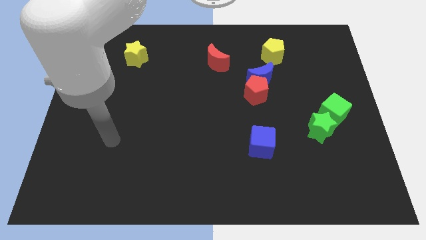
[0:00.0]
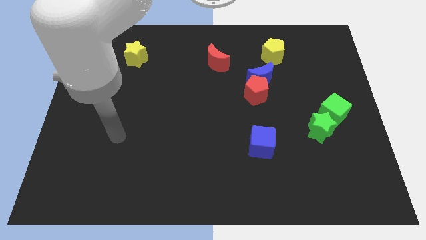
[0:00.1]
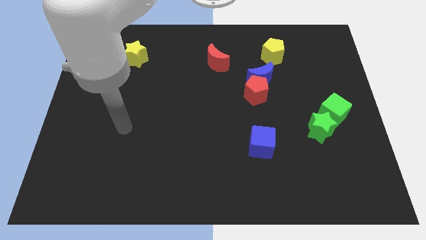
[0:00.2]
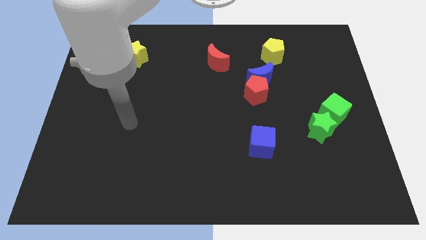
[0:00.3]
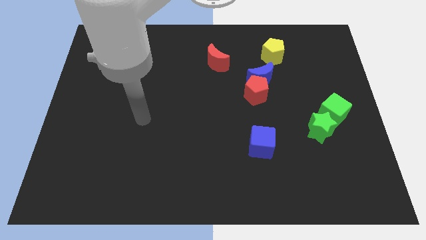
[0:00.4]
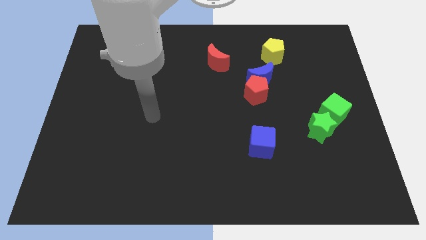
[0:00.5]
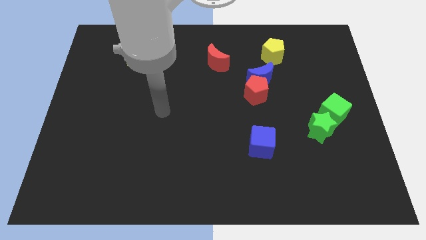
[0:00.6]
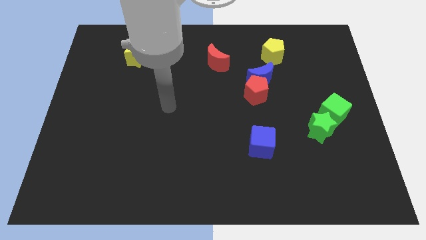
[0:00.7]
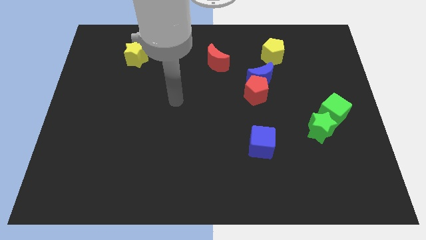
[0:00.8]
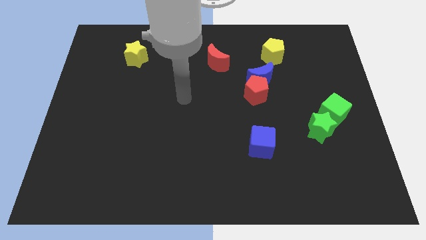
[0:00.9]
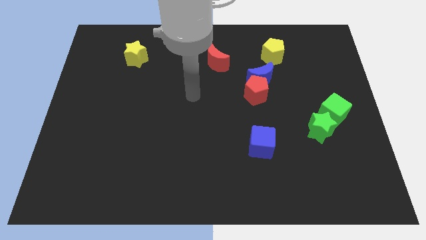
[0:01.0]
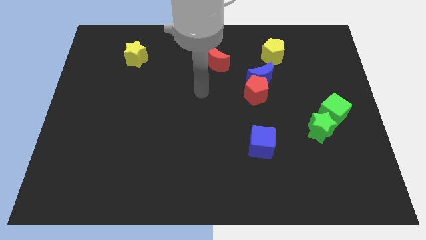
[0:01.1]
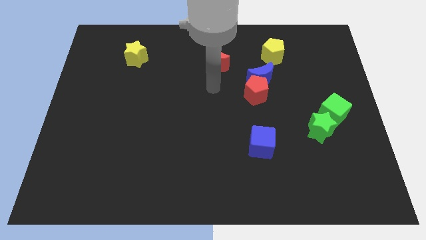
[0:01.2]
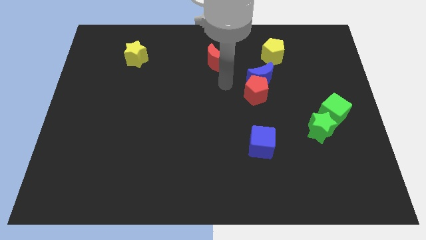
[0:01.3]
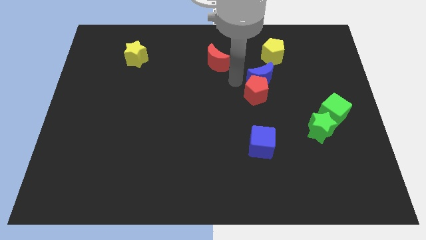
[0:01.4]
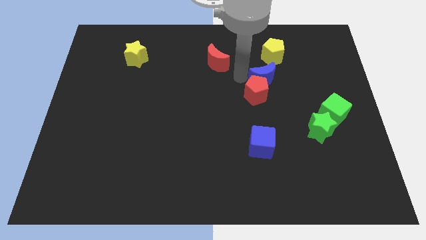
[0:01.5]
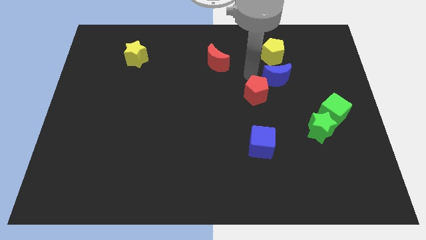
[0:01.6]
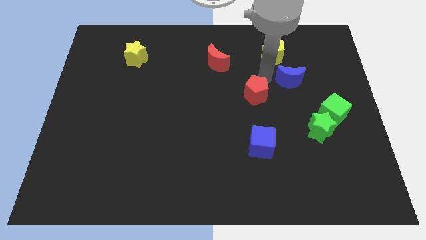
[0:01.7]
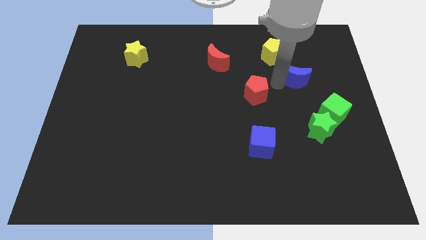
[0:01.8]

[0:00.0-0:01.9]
pull the red pentagon apart from the blue moon

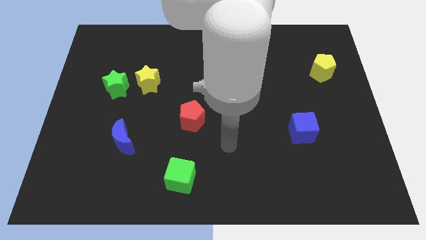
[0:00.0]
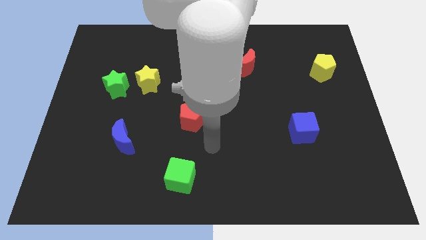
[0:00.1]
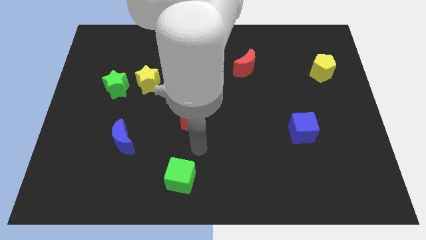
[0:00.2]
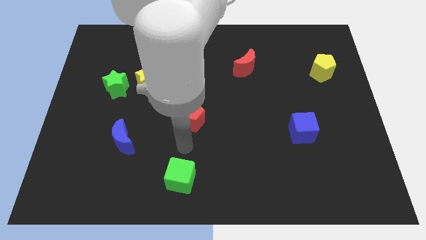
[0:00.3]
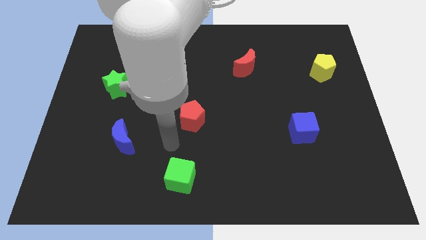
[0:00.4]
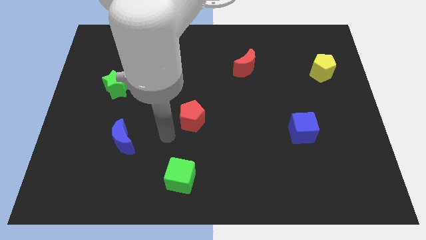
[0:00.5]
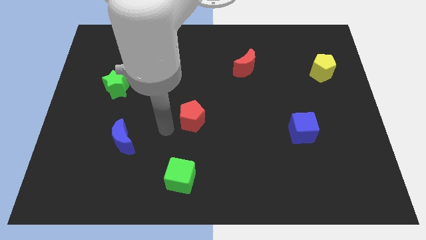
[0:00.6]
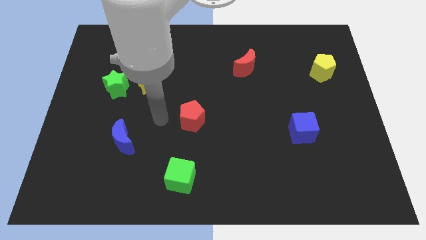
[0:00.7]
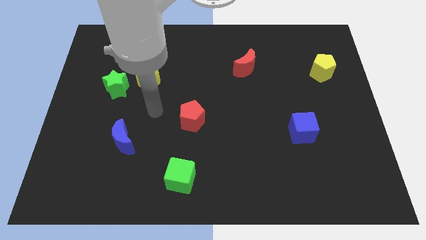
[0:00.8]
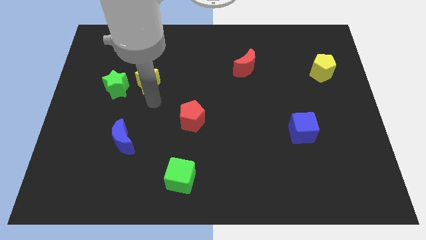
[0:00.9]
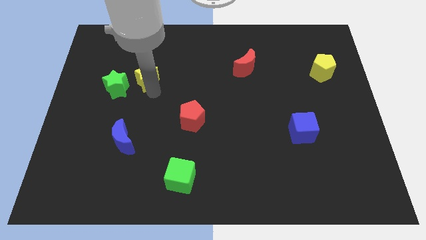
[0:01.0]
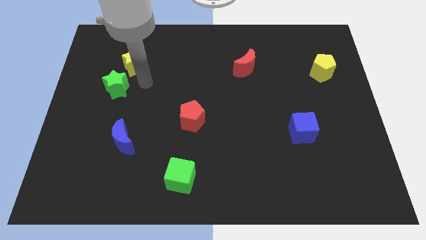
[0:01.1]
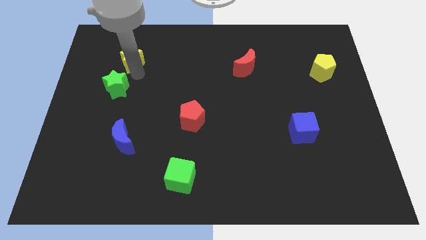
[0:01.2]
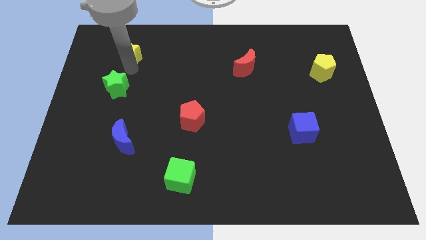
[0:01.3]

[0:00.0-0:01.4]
pull the green star apart from the yellow star

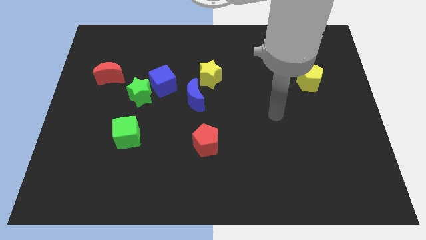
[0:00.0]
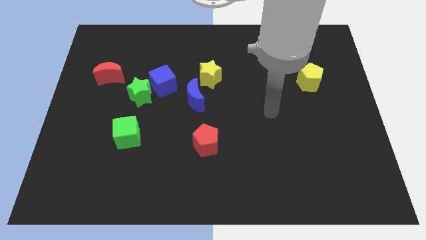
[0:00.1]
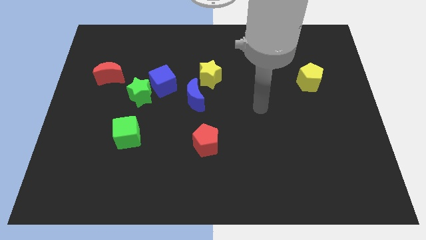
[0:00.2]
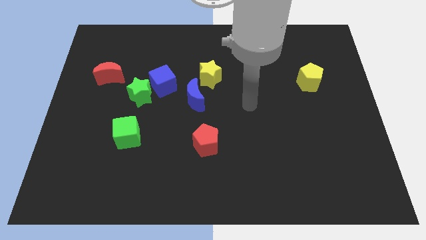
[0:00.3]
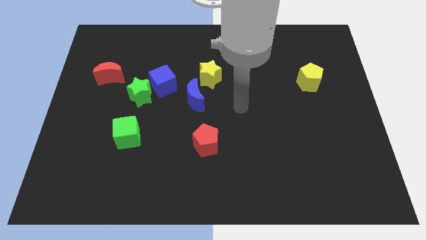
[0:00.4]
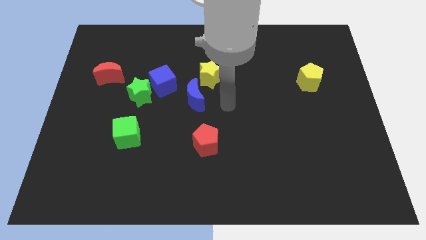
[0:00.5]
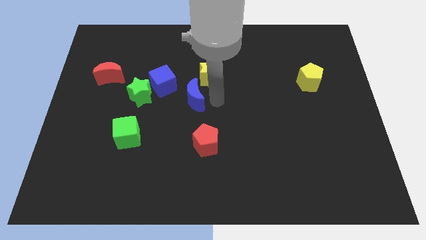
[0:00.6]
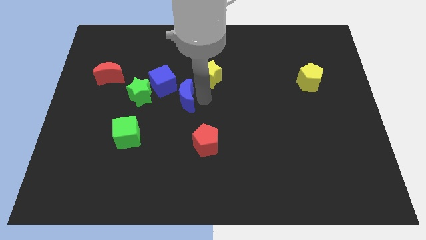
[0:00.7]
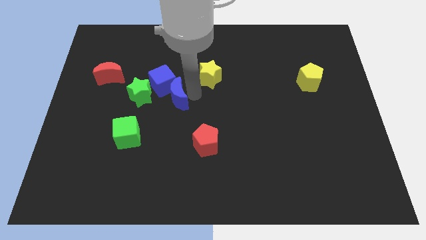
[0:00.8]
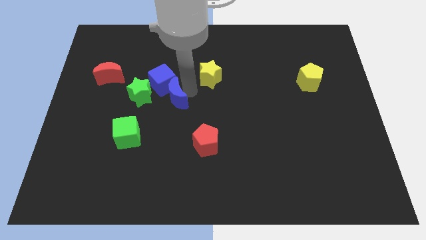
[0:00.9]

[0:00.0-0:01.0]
move the yellow star away from the blue moon

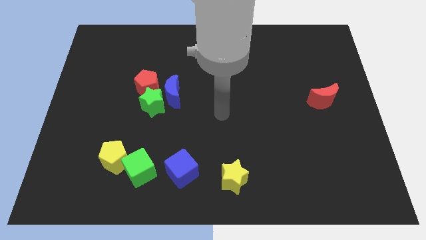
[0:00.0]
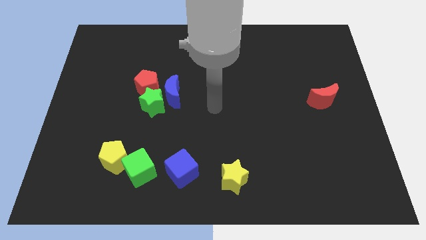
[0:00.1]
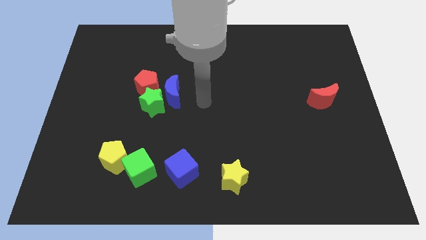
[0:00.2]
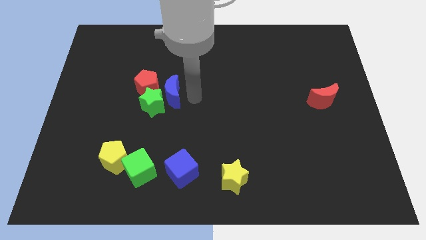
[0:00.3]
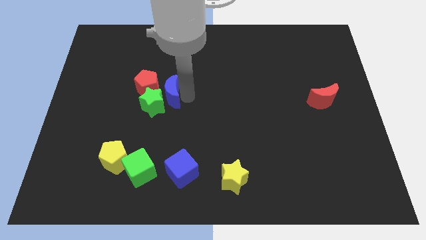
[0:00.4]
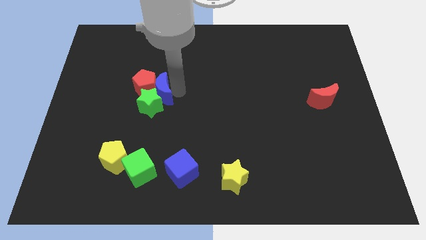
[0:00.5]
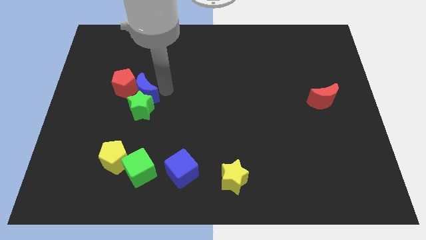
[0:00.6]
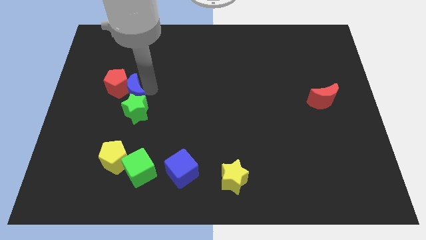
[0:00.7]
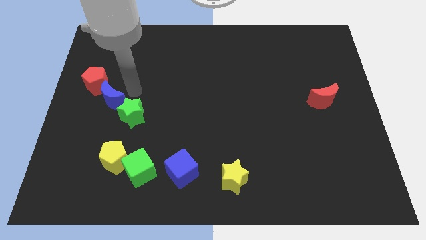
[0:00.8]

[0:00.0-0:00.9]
pull the green star apart from the blue moon and red pentagon

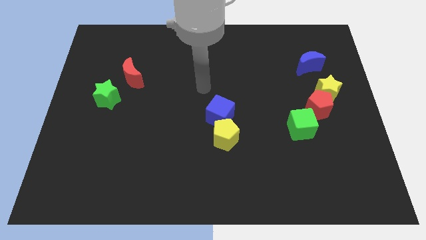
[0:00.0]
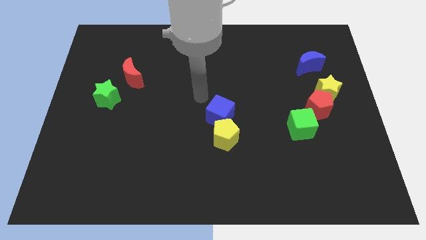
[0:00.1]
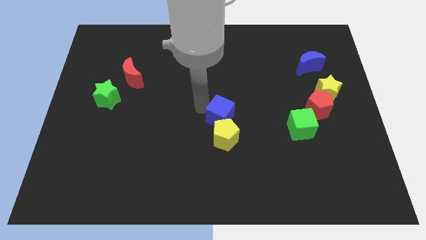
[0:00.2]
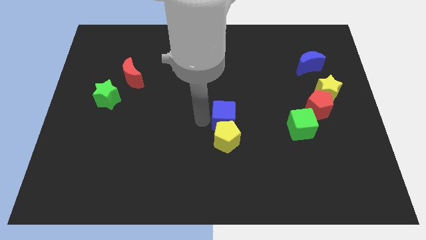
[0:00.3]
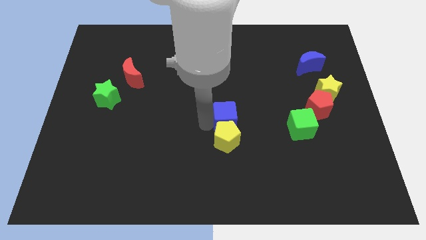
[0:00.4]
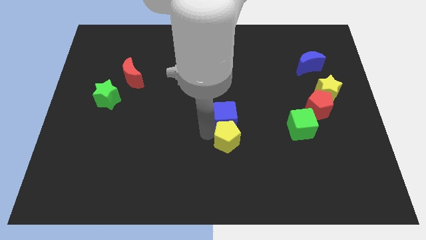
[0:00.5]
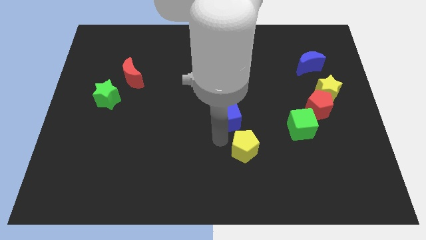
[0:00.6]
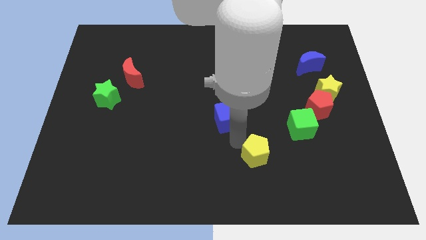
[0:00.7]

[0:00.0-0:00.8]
separate the blue cube from the yellow pentagon

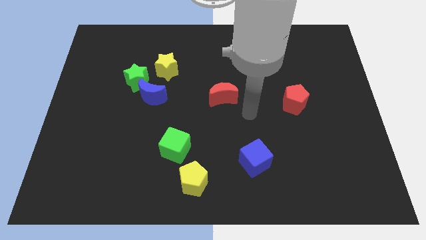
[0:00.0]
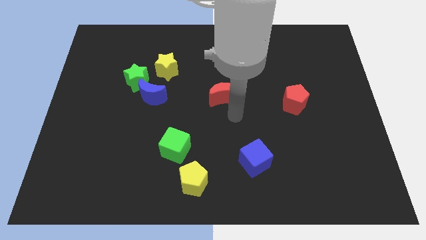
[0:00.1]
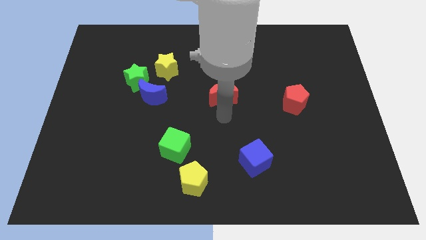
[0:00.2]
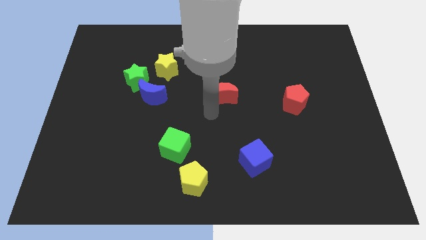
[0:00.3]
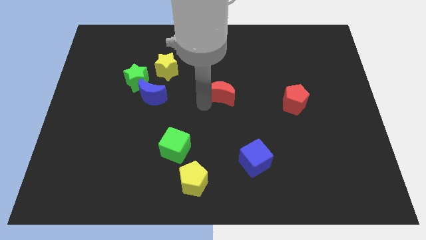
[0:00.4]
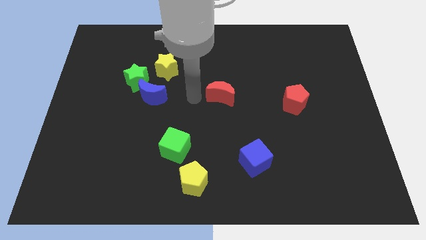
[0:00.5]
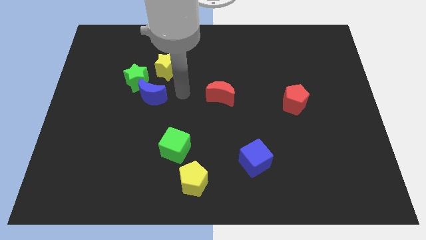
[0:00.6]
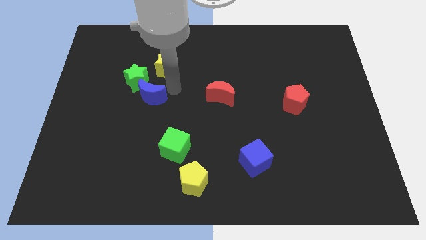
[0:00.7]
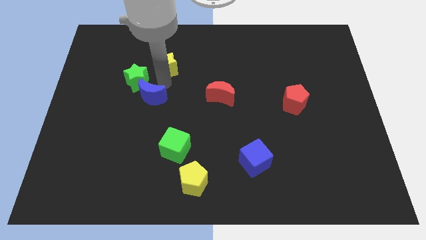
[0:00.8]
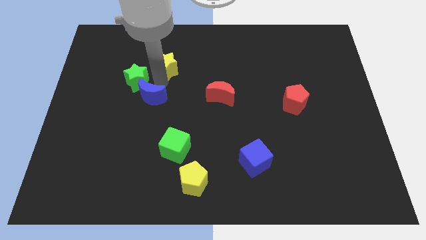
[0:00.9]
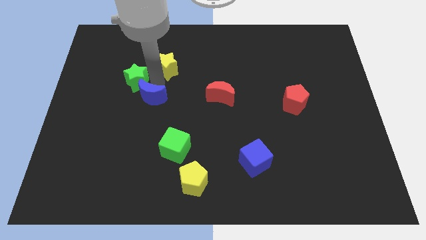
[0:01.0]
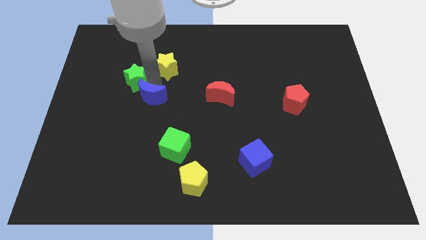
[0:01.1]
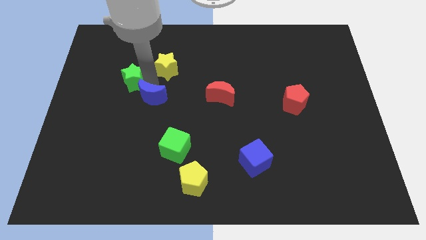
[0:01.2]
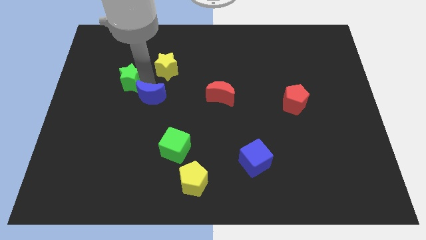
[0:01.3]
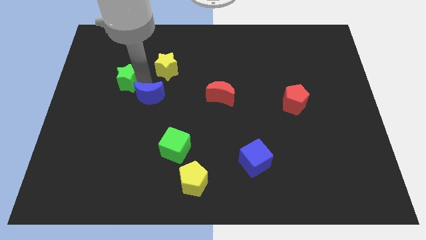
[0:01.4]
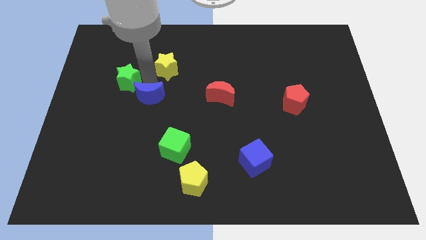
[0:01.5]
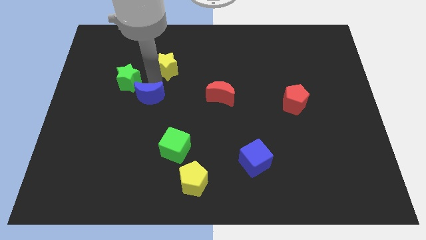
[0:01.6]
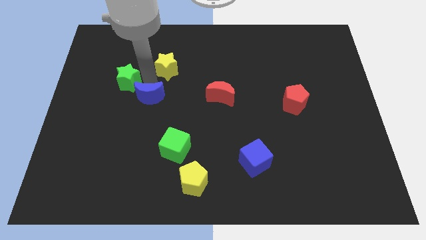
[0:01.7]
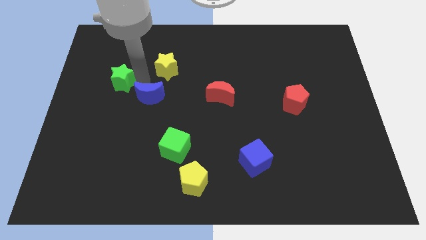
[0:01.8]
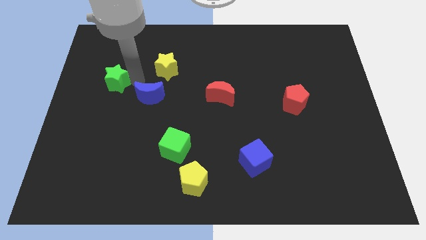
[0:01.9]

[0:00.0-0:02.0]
move the green star away from the blue moon and yellow star

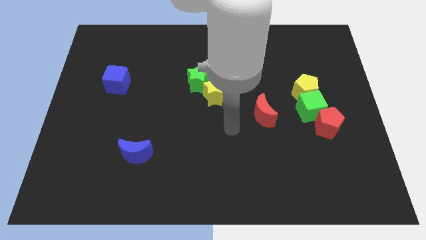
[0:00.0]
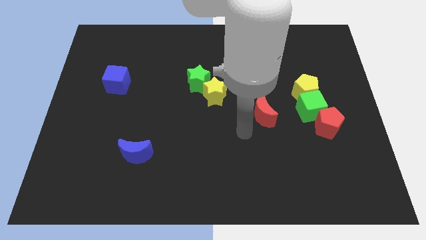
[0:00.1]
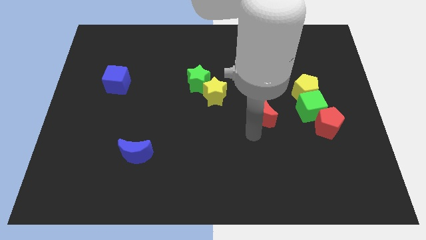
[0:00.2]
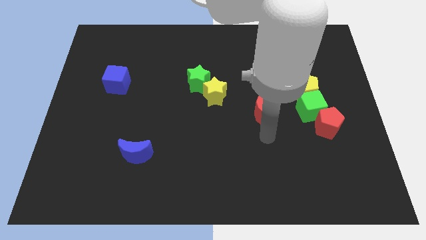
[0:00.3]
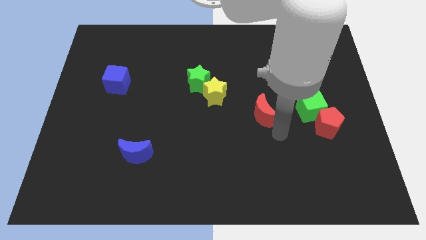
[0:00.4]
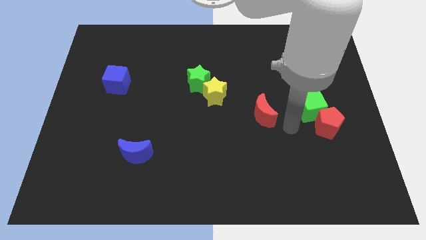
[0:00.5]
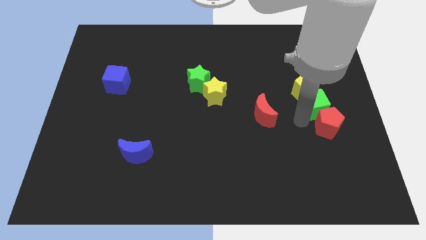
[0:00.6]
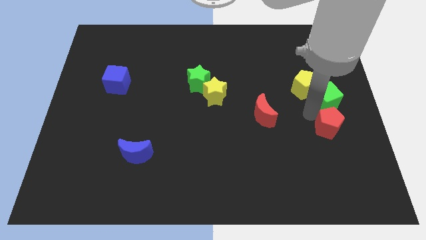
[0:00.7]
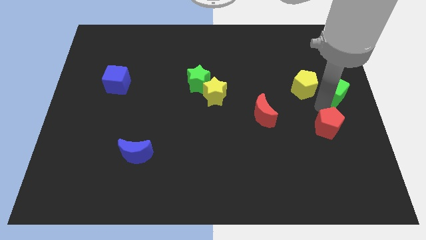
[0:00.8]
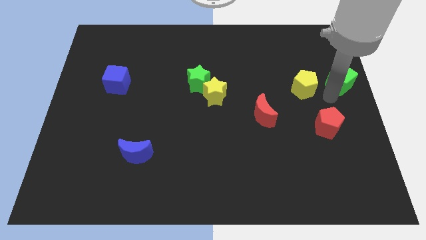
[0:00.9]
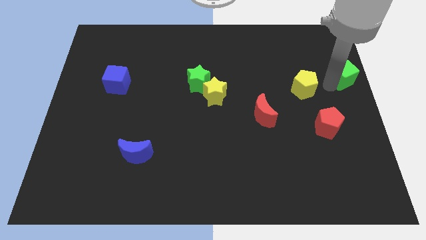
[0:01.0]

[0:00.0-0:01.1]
pull the yellow pentagon apart from the green cube
